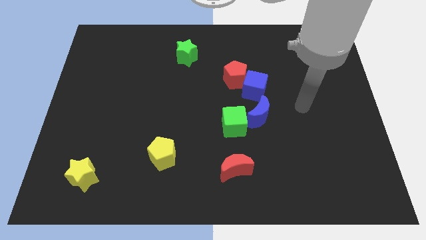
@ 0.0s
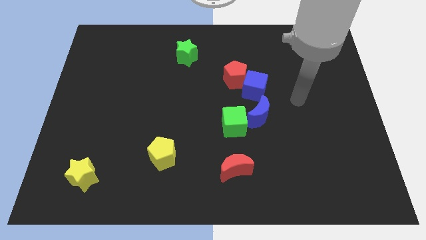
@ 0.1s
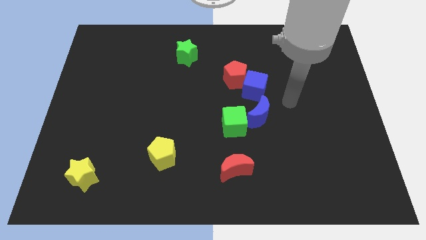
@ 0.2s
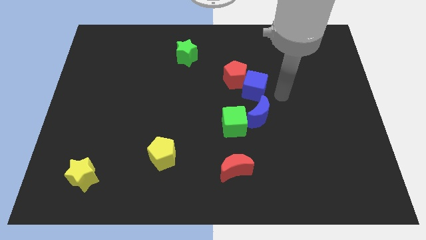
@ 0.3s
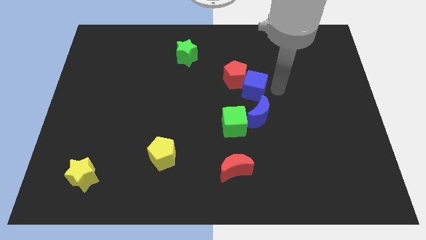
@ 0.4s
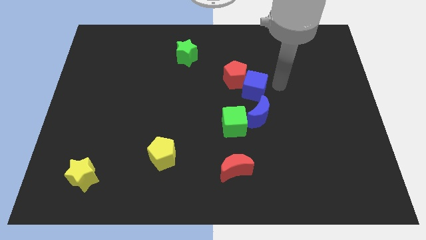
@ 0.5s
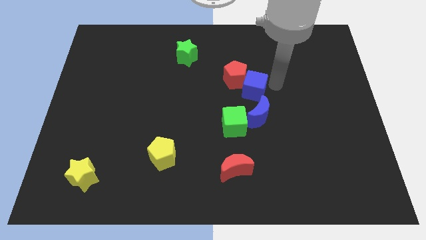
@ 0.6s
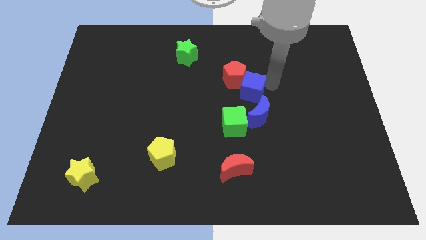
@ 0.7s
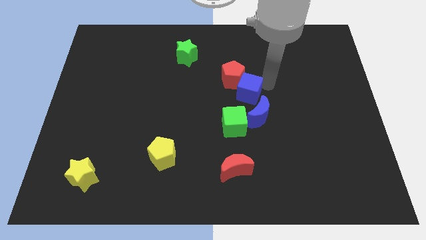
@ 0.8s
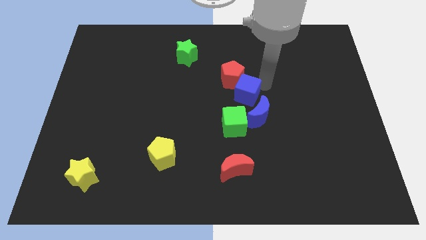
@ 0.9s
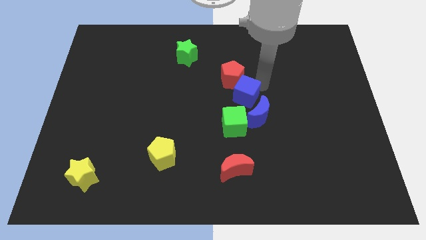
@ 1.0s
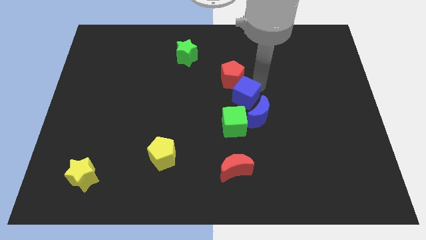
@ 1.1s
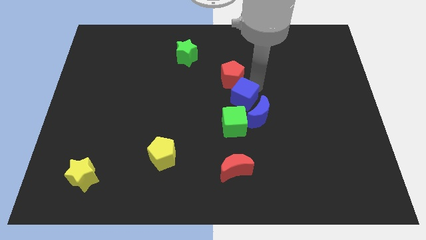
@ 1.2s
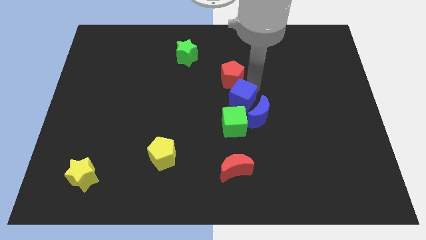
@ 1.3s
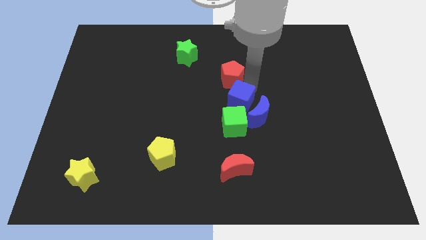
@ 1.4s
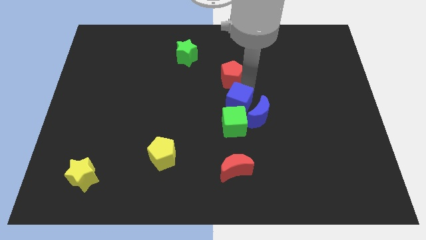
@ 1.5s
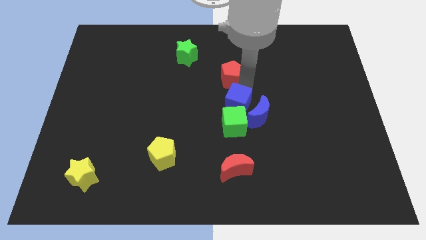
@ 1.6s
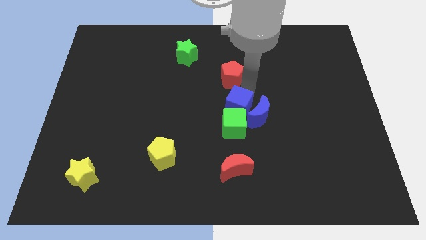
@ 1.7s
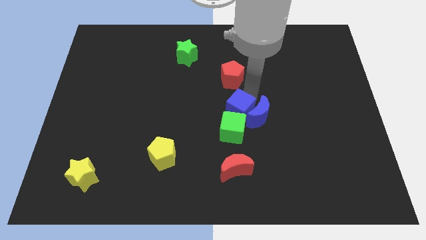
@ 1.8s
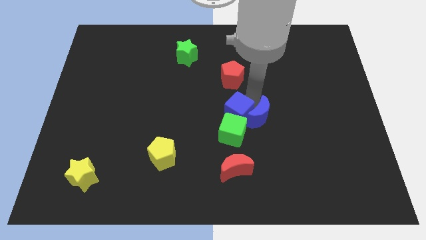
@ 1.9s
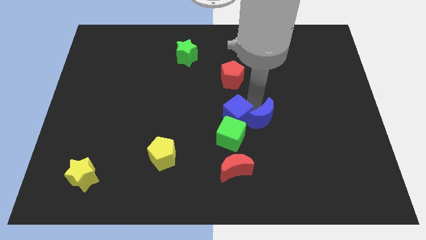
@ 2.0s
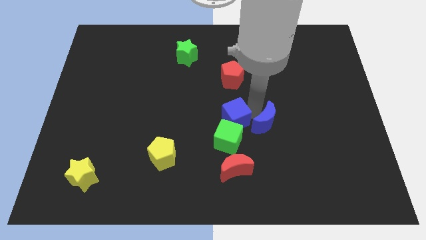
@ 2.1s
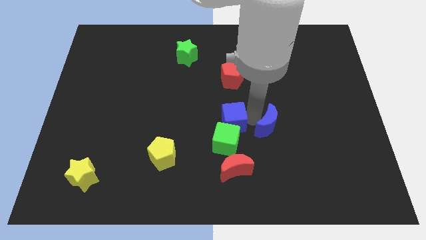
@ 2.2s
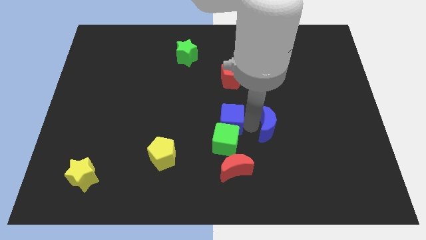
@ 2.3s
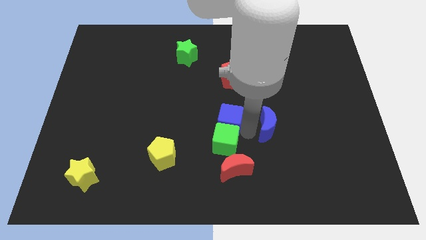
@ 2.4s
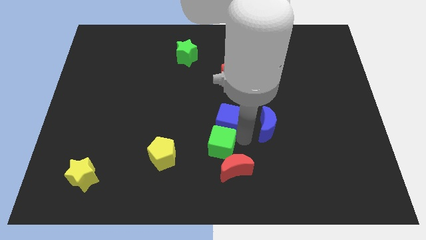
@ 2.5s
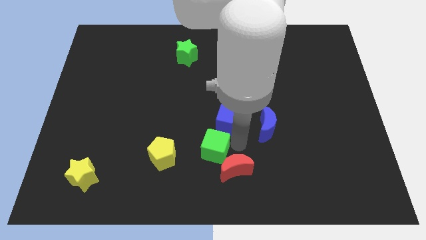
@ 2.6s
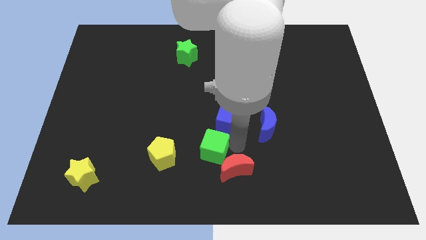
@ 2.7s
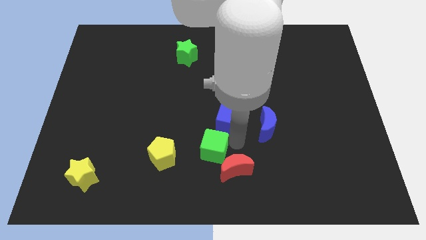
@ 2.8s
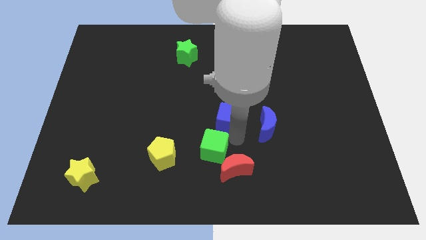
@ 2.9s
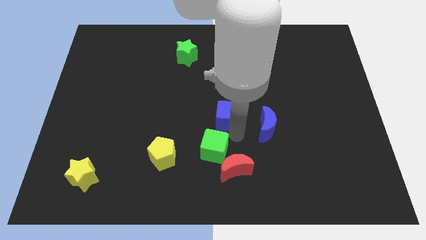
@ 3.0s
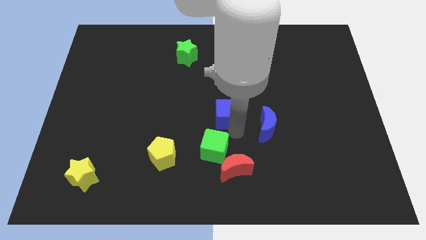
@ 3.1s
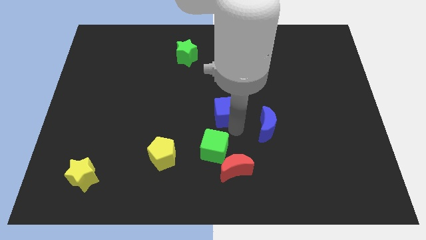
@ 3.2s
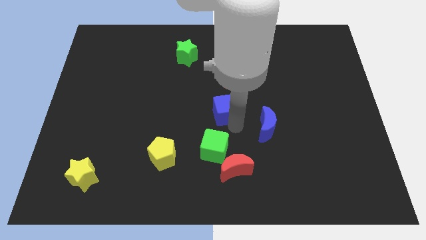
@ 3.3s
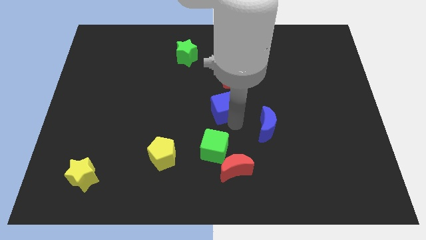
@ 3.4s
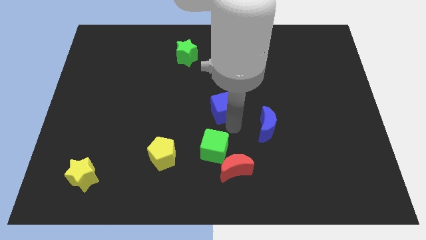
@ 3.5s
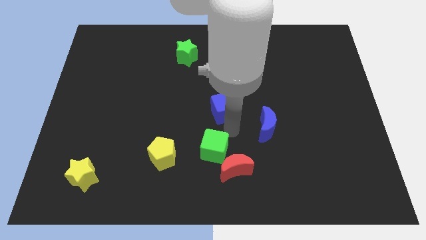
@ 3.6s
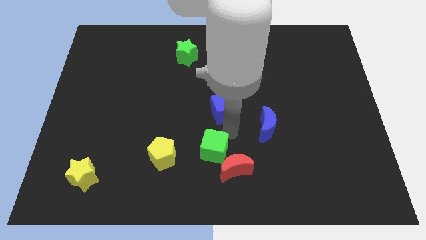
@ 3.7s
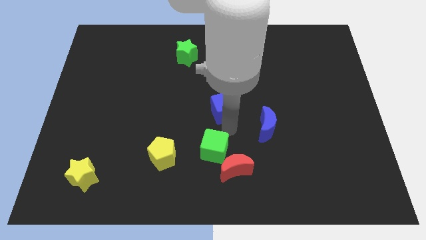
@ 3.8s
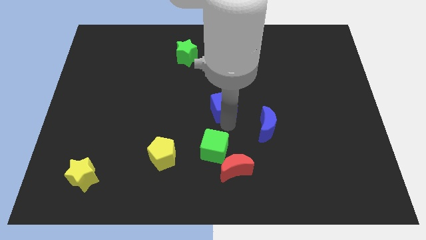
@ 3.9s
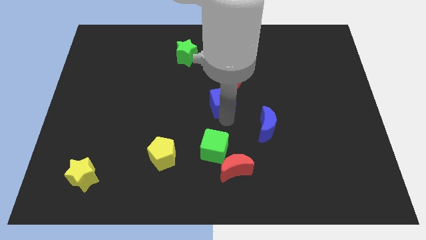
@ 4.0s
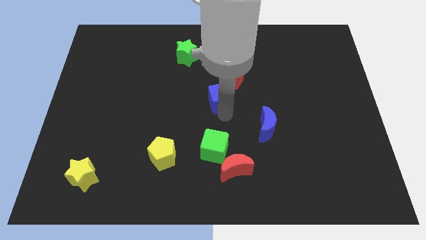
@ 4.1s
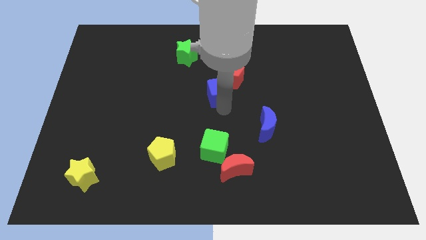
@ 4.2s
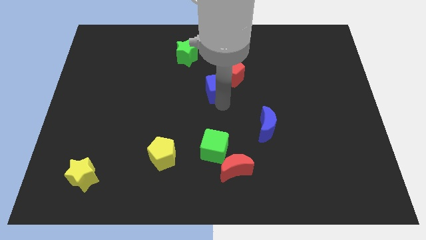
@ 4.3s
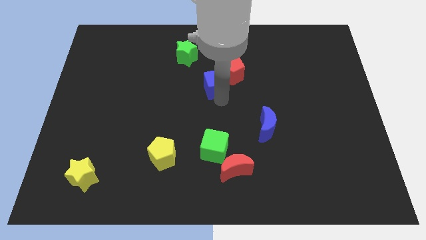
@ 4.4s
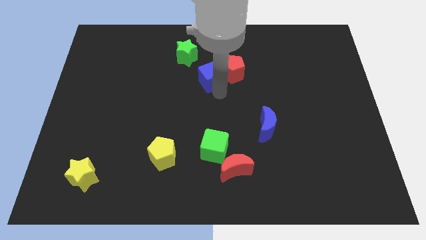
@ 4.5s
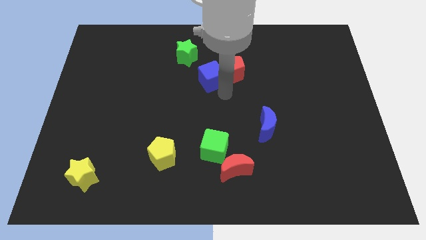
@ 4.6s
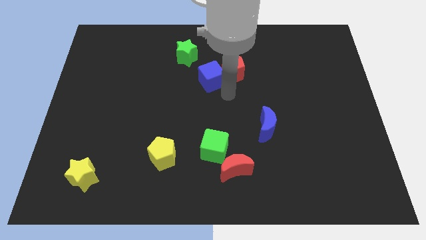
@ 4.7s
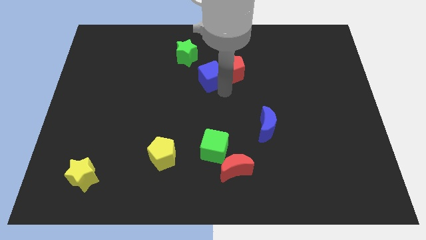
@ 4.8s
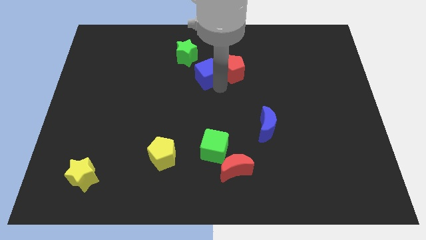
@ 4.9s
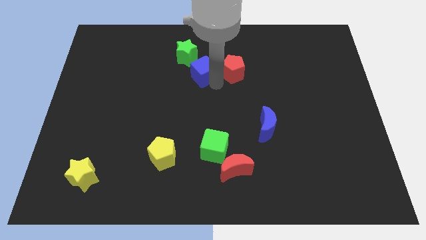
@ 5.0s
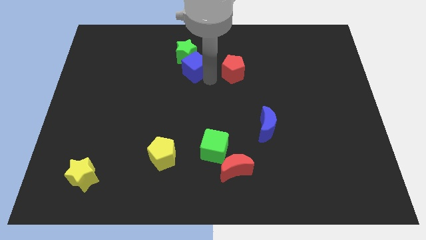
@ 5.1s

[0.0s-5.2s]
slide the blue cube next to the green star

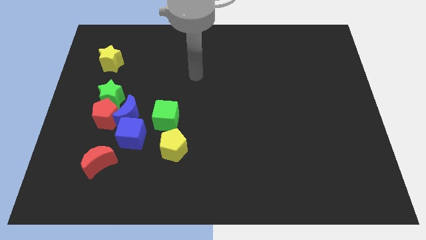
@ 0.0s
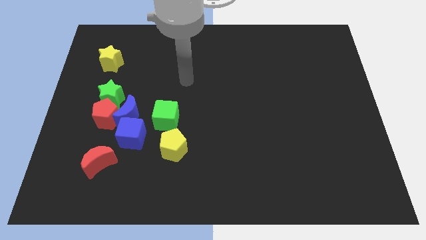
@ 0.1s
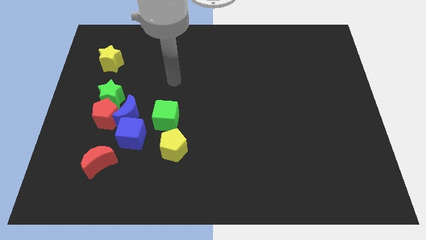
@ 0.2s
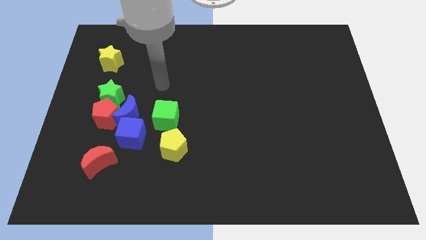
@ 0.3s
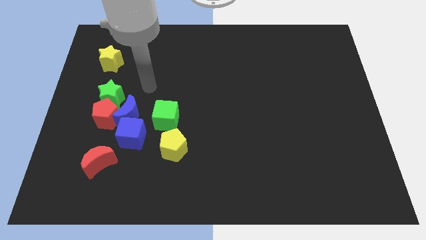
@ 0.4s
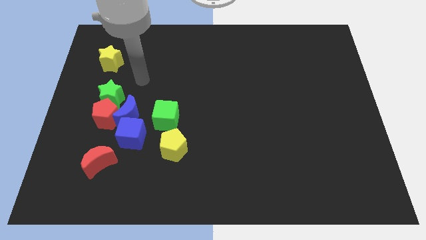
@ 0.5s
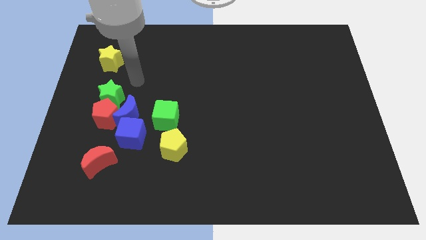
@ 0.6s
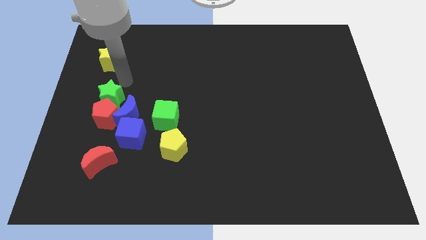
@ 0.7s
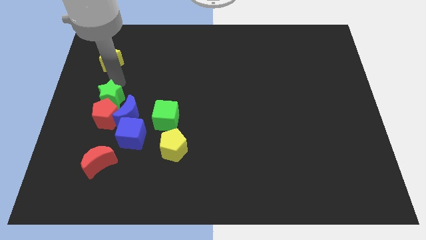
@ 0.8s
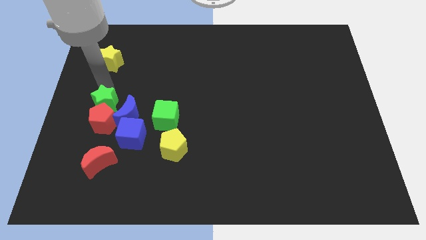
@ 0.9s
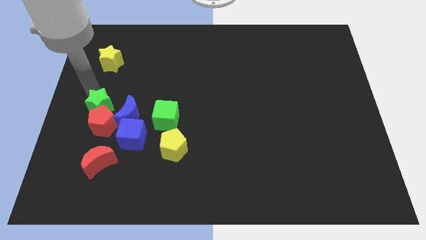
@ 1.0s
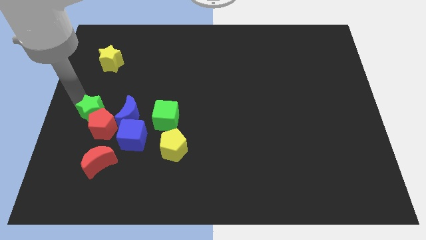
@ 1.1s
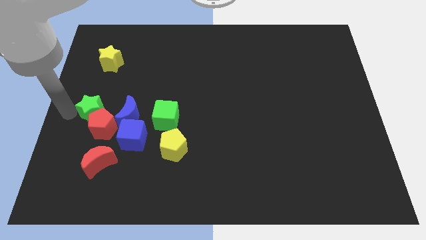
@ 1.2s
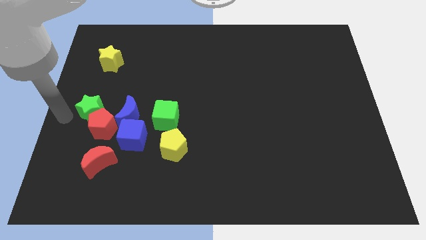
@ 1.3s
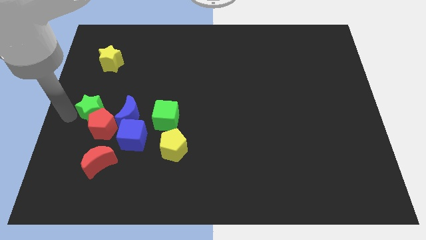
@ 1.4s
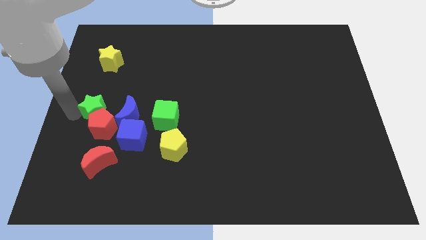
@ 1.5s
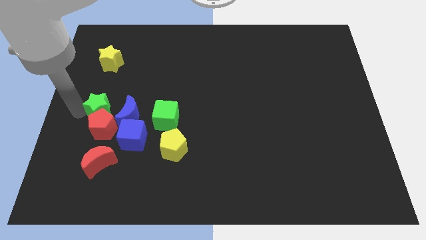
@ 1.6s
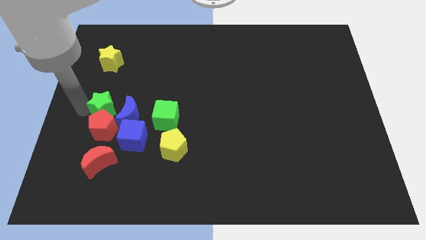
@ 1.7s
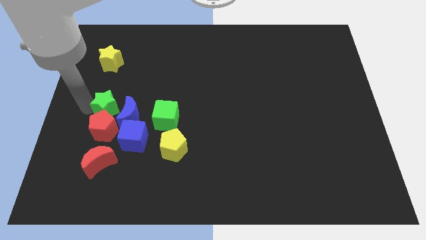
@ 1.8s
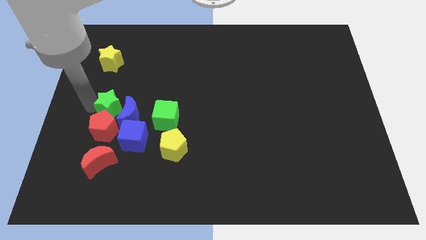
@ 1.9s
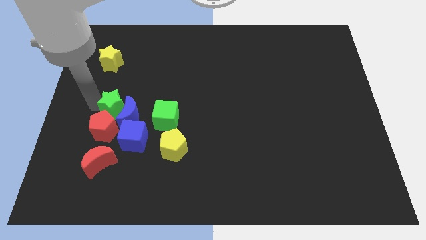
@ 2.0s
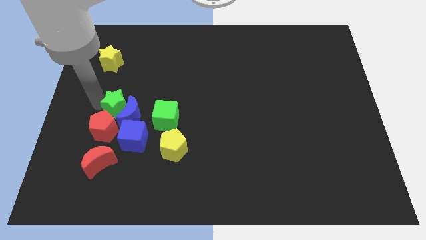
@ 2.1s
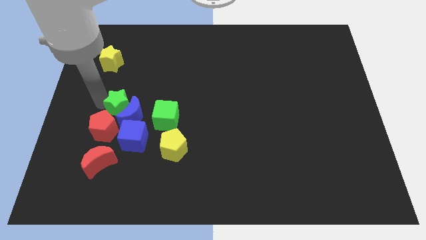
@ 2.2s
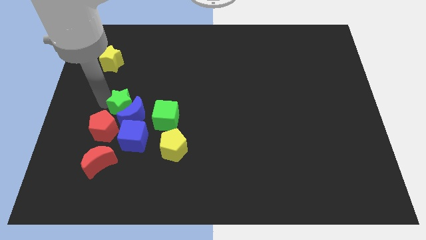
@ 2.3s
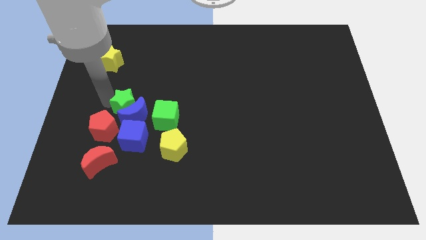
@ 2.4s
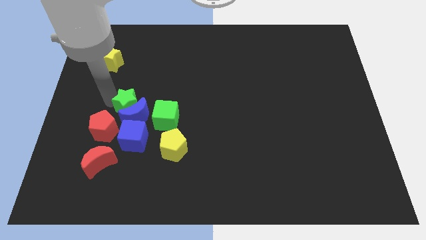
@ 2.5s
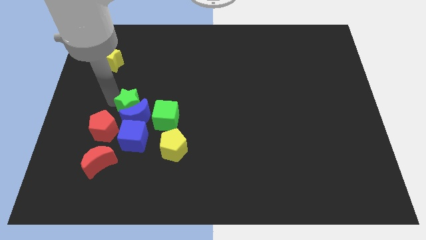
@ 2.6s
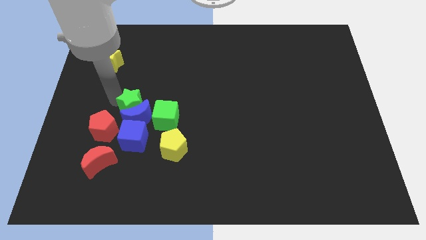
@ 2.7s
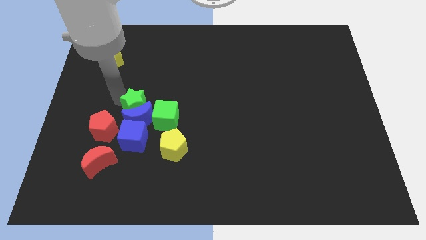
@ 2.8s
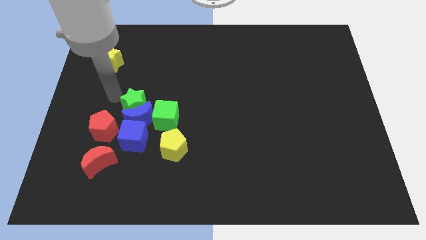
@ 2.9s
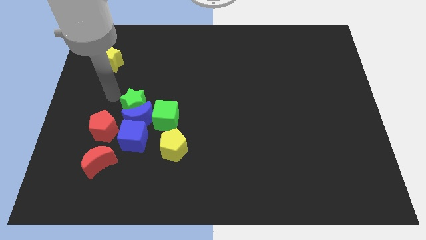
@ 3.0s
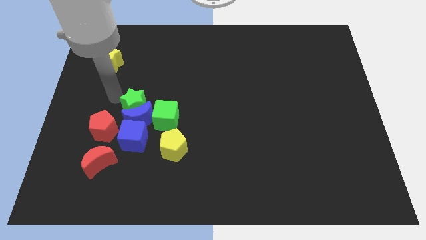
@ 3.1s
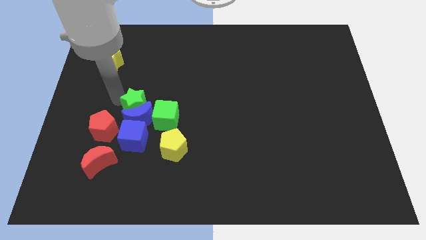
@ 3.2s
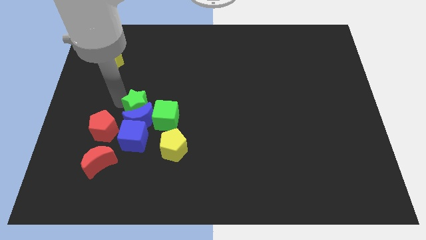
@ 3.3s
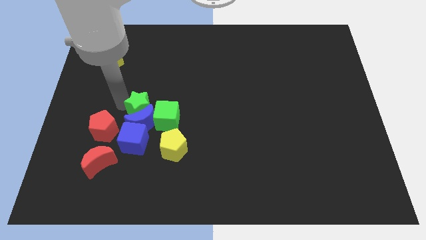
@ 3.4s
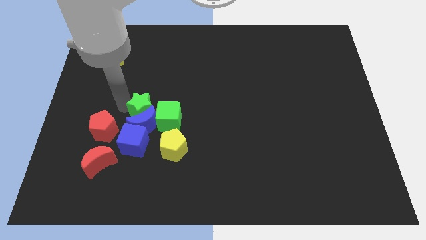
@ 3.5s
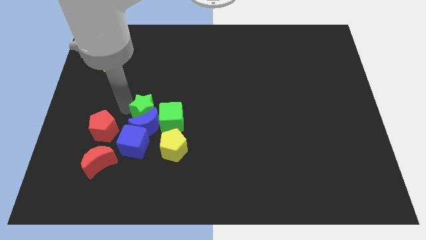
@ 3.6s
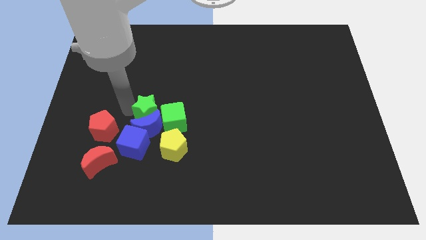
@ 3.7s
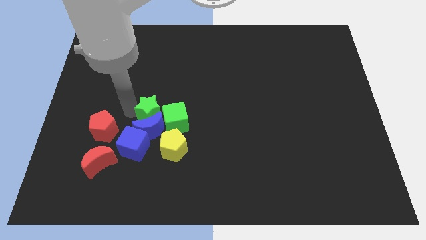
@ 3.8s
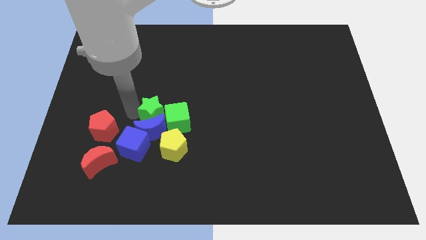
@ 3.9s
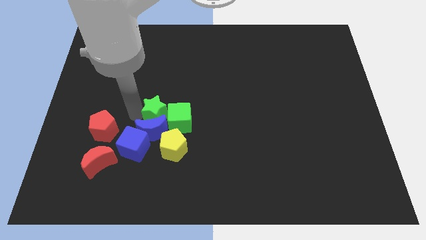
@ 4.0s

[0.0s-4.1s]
move the green star next to the green cube
